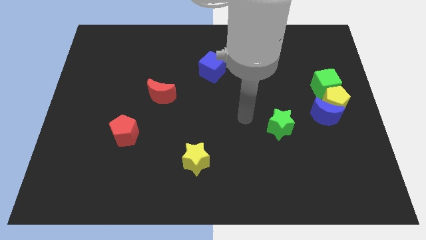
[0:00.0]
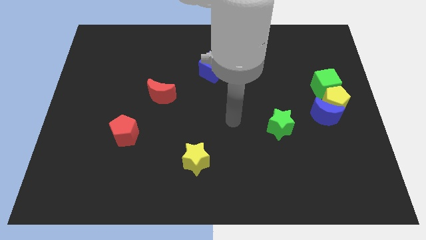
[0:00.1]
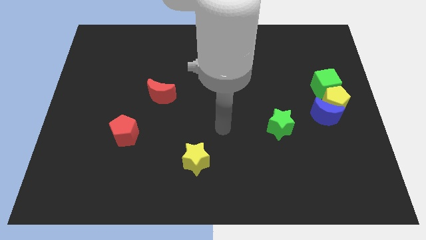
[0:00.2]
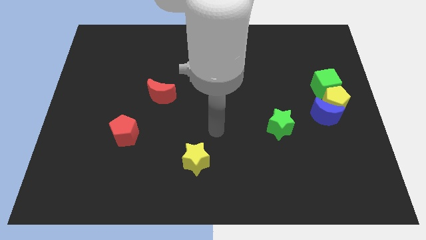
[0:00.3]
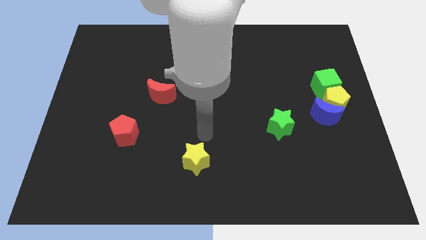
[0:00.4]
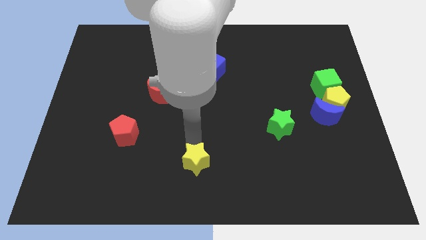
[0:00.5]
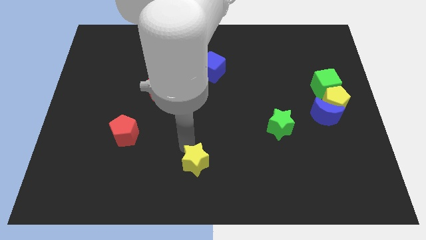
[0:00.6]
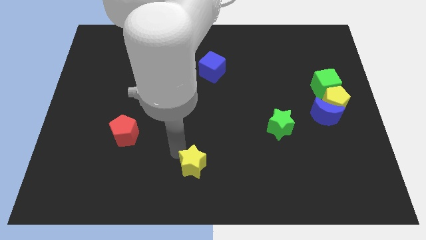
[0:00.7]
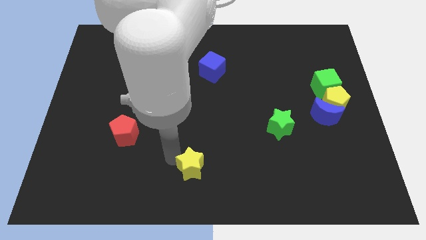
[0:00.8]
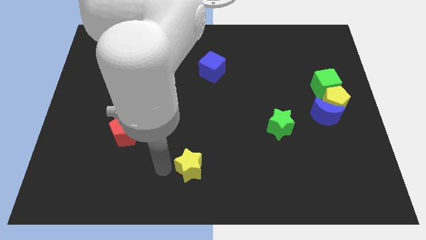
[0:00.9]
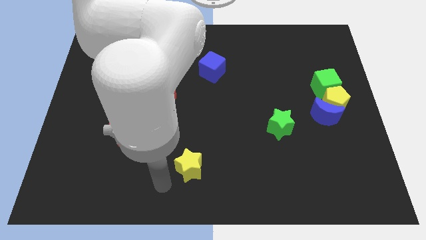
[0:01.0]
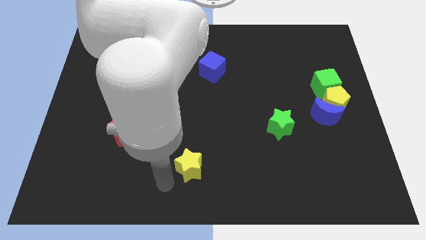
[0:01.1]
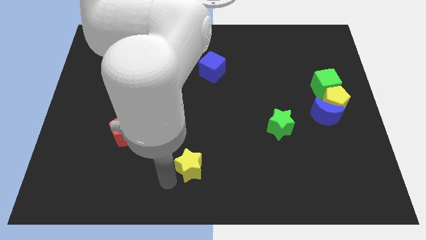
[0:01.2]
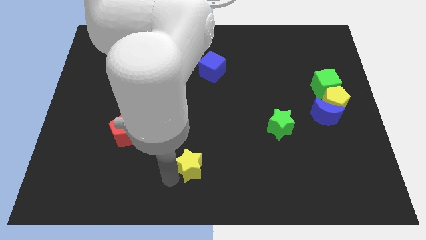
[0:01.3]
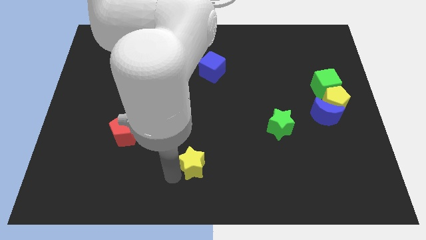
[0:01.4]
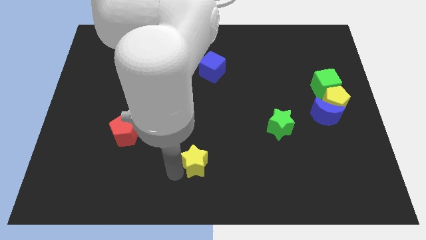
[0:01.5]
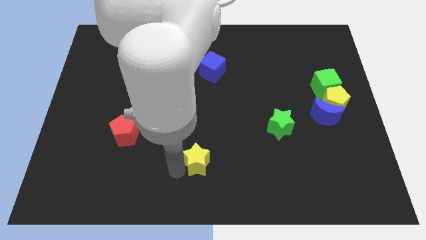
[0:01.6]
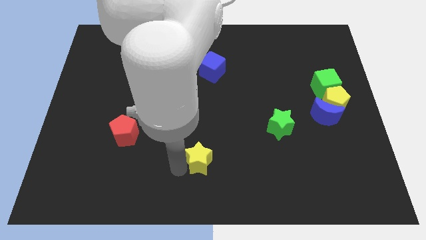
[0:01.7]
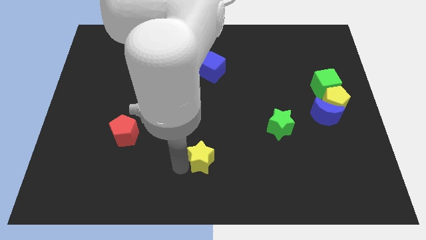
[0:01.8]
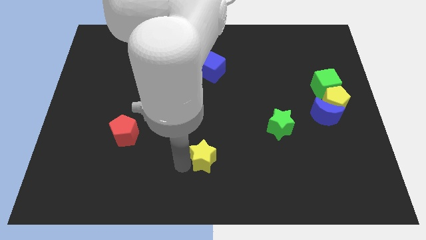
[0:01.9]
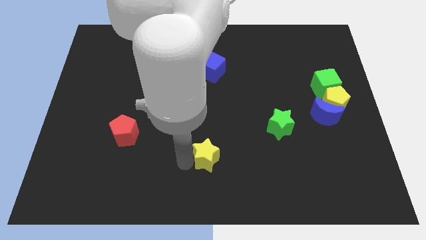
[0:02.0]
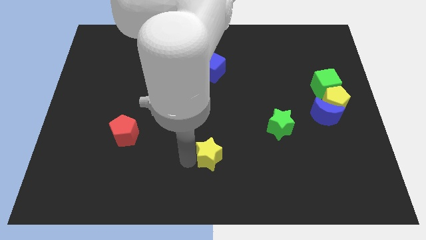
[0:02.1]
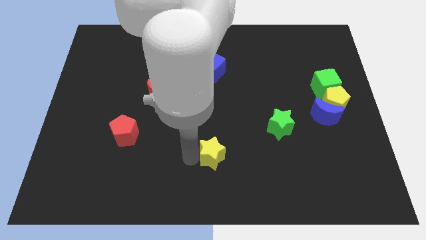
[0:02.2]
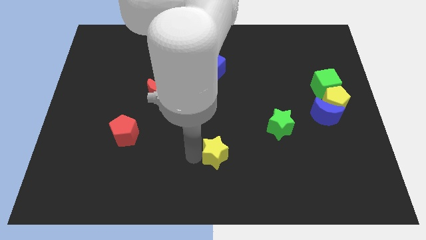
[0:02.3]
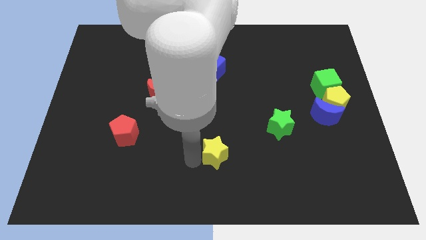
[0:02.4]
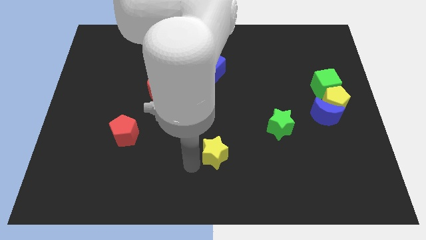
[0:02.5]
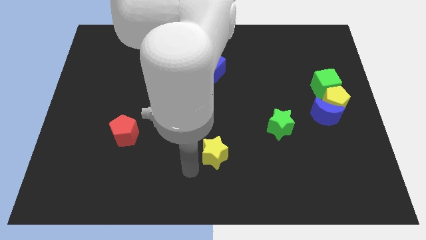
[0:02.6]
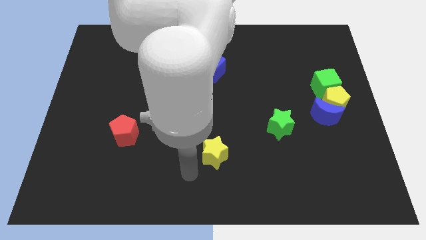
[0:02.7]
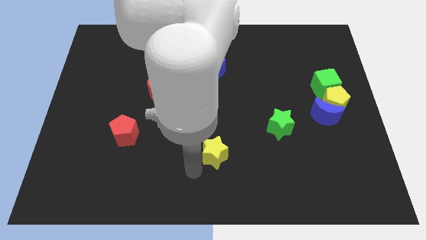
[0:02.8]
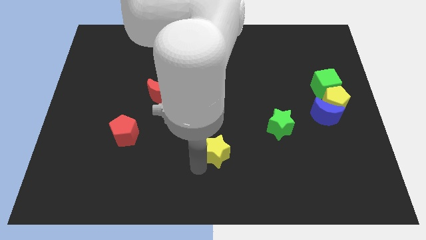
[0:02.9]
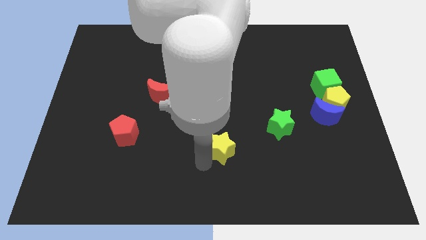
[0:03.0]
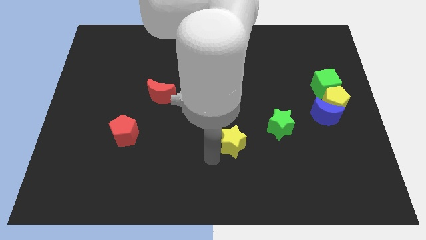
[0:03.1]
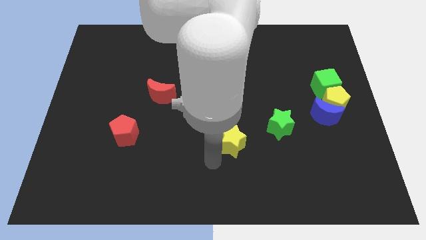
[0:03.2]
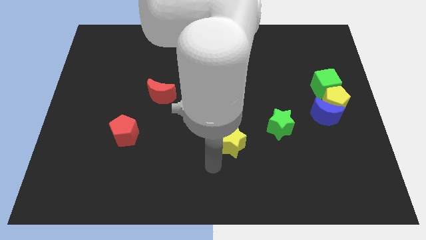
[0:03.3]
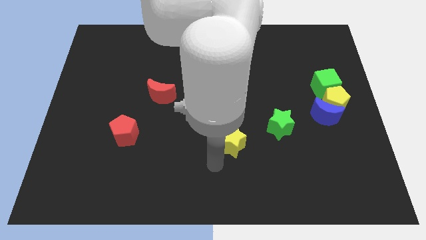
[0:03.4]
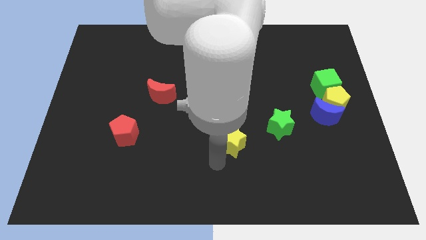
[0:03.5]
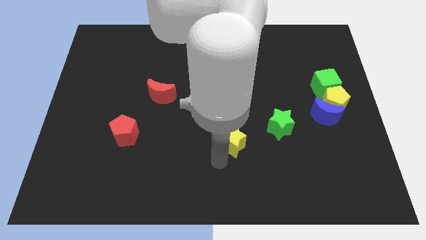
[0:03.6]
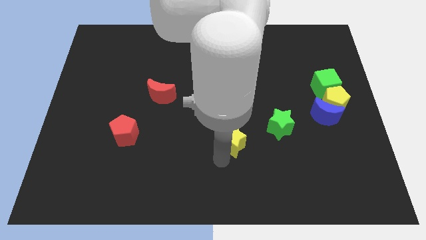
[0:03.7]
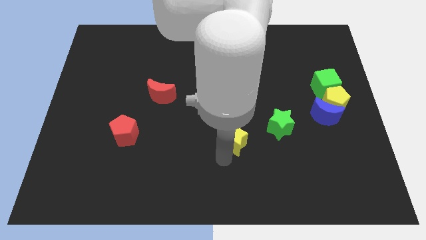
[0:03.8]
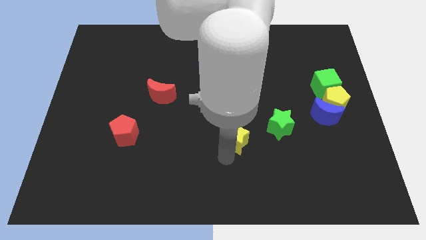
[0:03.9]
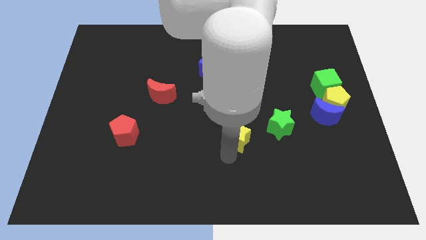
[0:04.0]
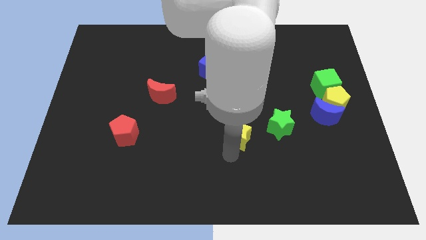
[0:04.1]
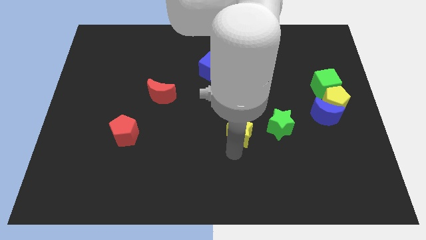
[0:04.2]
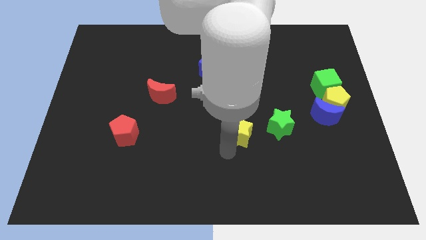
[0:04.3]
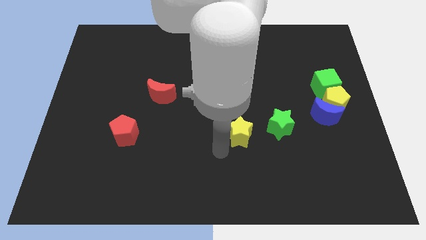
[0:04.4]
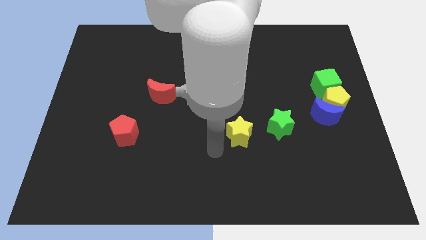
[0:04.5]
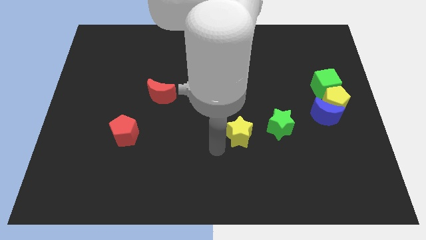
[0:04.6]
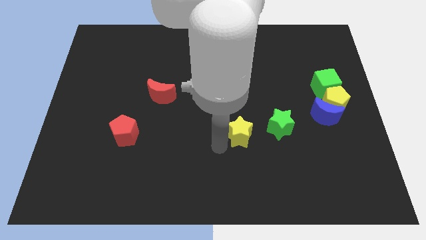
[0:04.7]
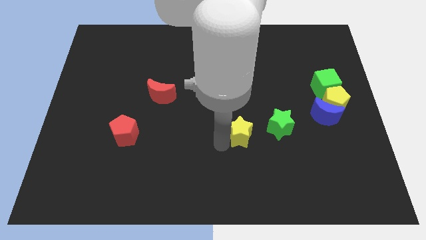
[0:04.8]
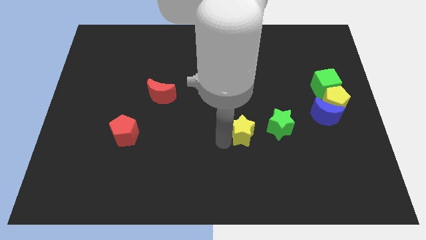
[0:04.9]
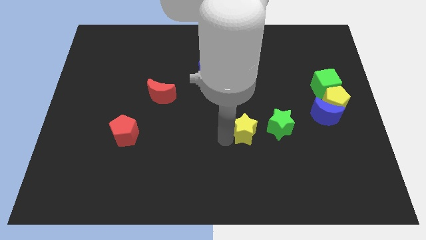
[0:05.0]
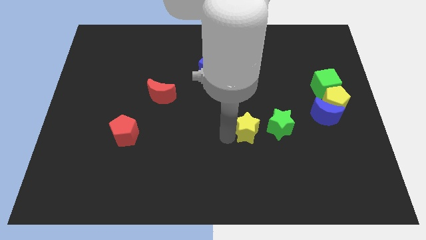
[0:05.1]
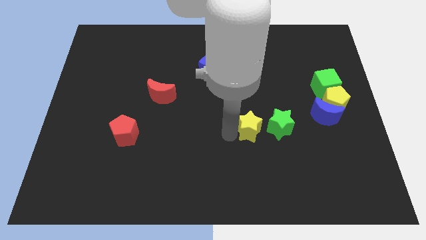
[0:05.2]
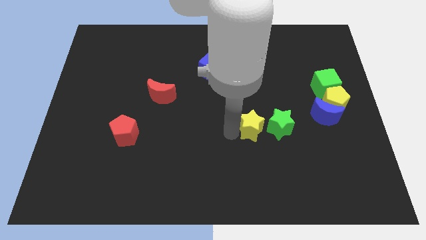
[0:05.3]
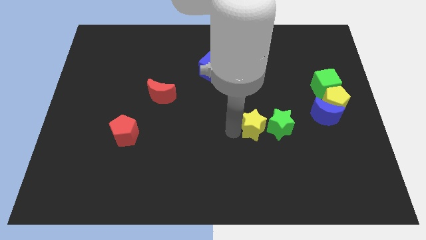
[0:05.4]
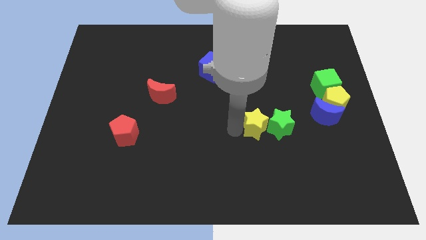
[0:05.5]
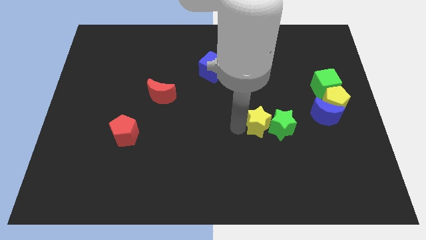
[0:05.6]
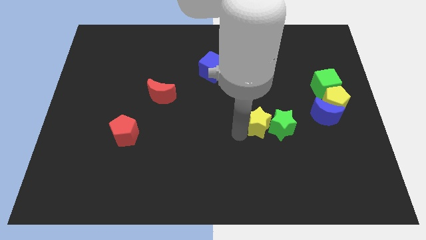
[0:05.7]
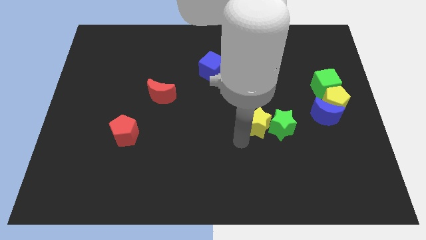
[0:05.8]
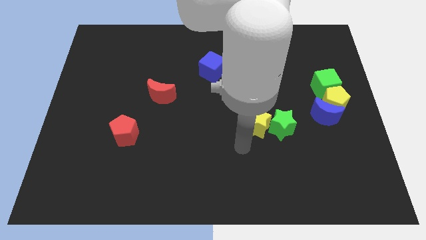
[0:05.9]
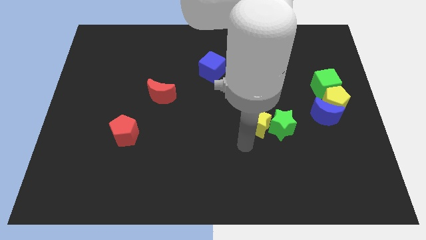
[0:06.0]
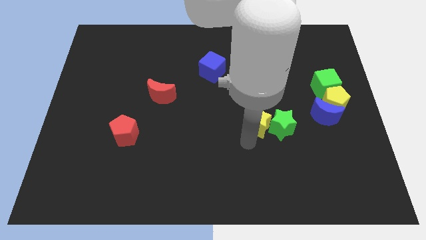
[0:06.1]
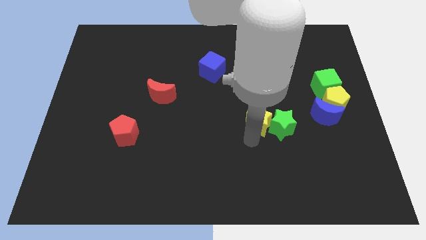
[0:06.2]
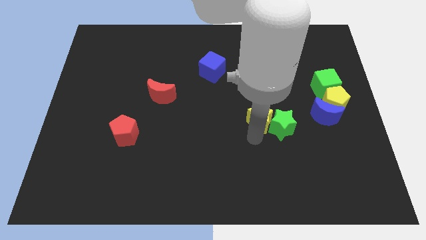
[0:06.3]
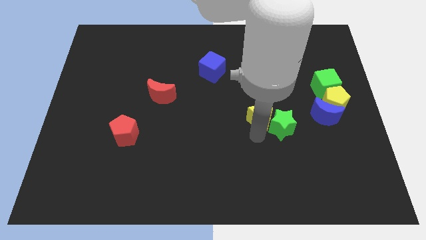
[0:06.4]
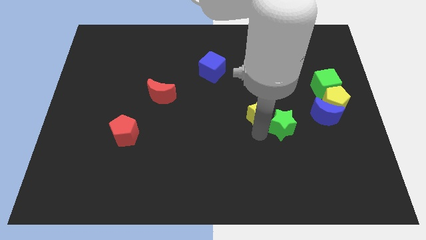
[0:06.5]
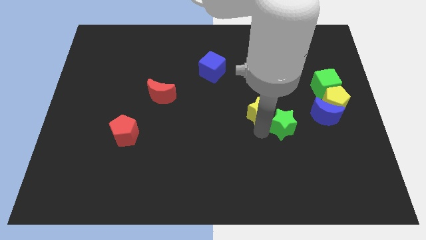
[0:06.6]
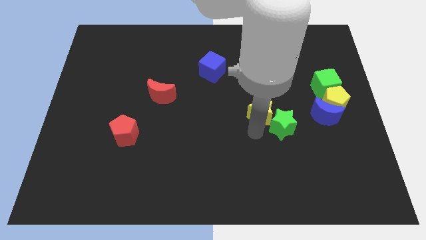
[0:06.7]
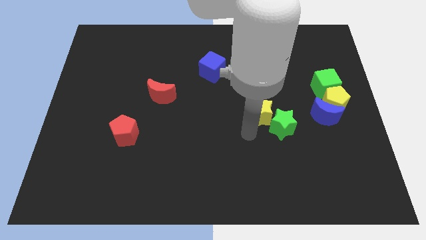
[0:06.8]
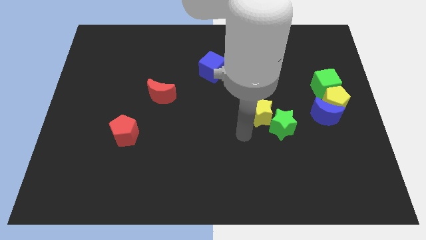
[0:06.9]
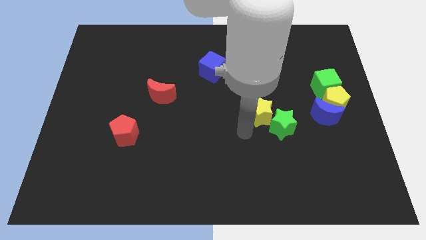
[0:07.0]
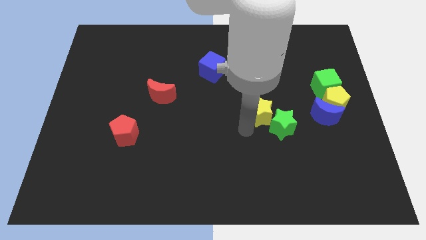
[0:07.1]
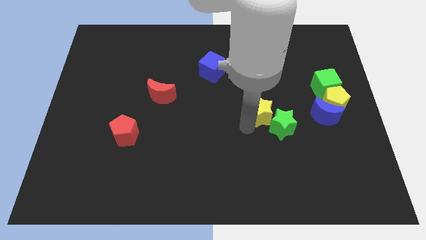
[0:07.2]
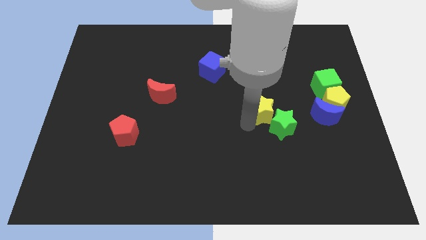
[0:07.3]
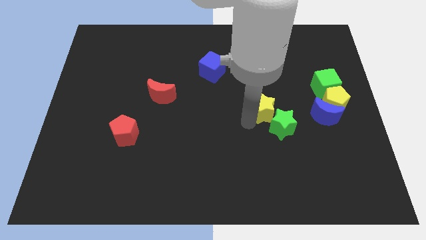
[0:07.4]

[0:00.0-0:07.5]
move the yellow star upwards and then right

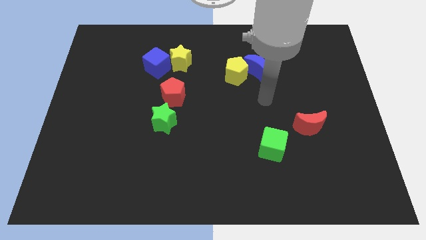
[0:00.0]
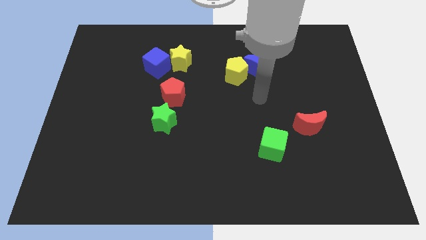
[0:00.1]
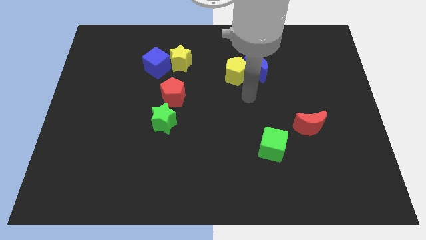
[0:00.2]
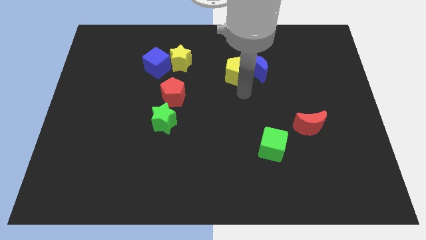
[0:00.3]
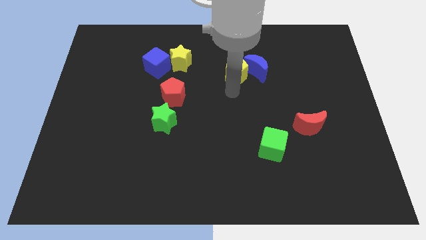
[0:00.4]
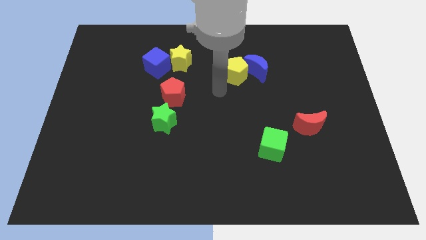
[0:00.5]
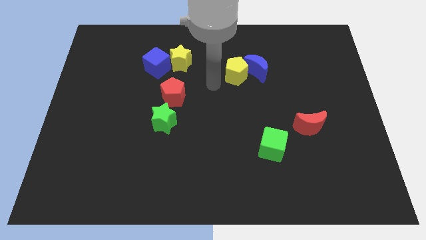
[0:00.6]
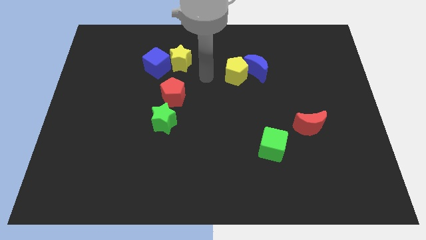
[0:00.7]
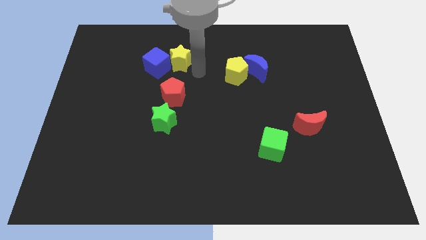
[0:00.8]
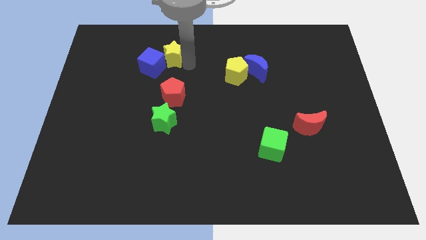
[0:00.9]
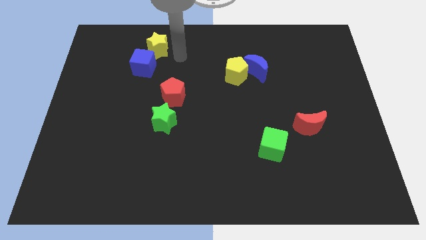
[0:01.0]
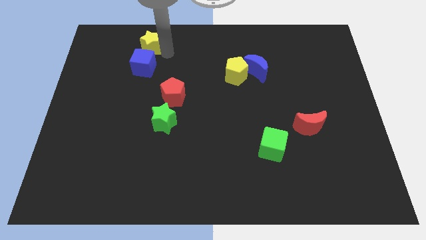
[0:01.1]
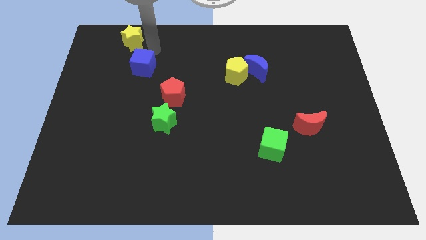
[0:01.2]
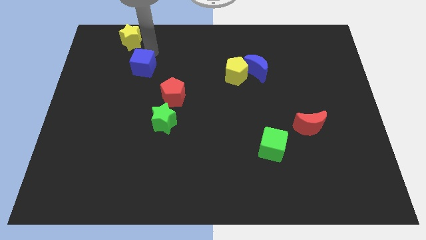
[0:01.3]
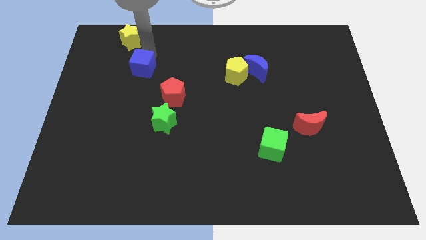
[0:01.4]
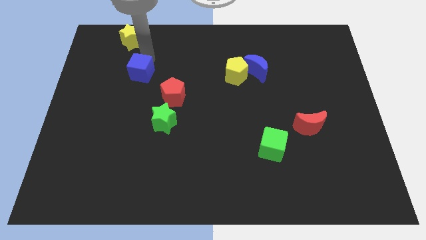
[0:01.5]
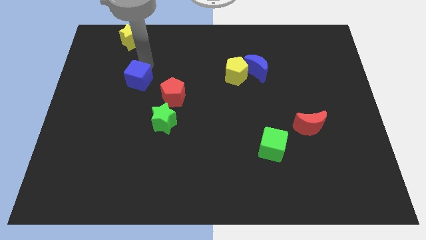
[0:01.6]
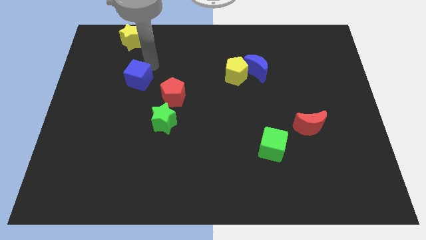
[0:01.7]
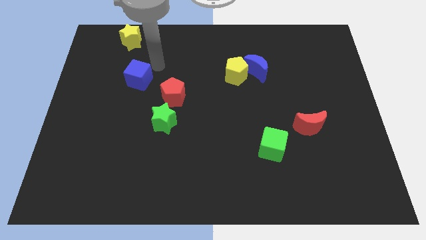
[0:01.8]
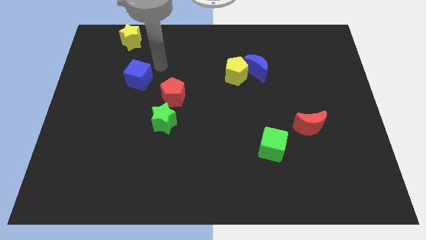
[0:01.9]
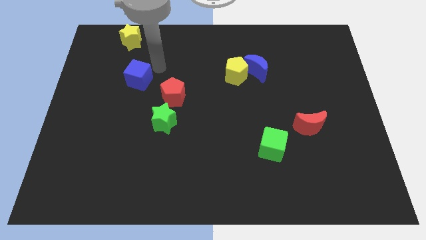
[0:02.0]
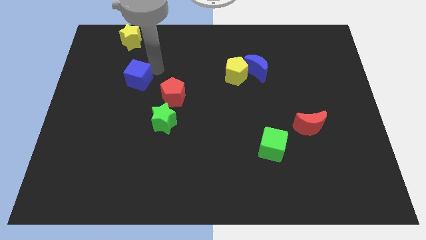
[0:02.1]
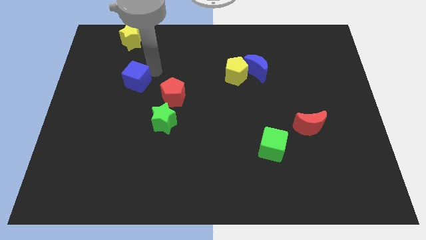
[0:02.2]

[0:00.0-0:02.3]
push the blue cube downwards and then to the left a little bit
